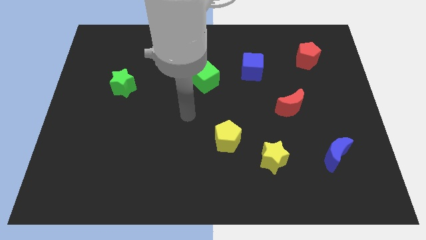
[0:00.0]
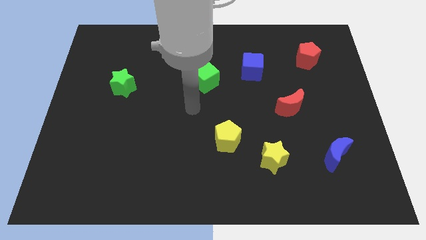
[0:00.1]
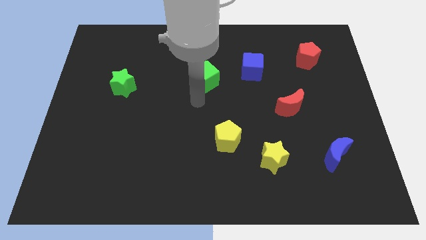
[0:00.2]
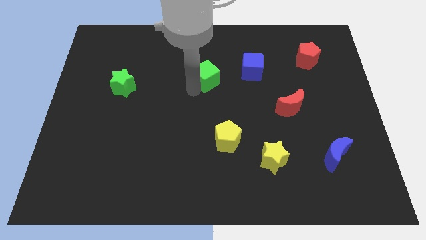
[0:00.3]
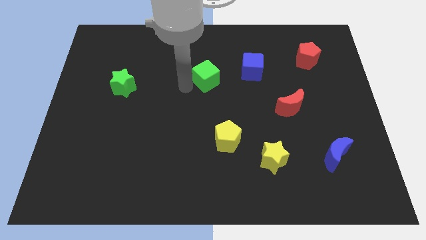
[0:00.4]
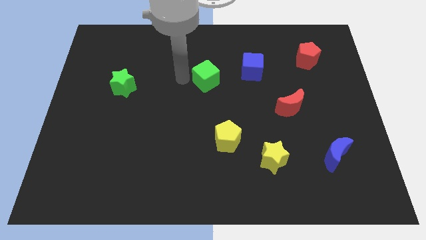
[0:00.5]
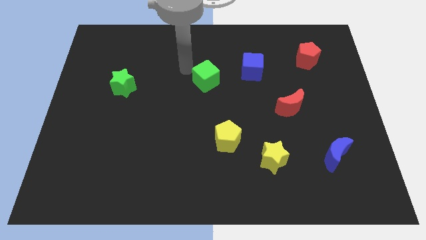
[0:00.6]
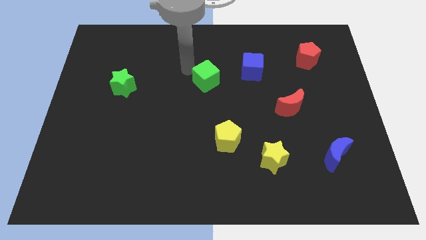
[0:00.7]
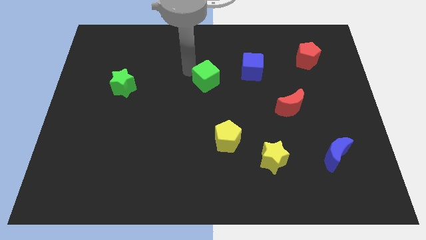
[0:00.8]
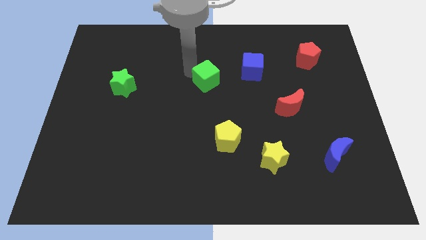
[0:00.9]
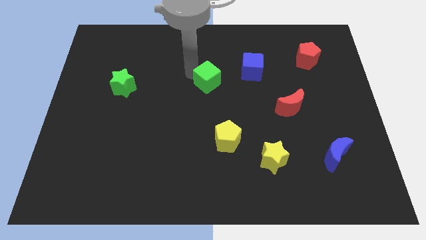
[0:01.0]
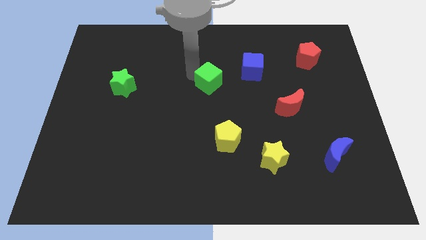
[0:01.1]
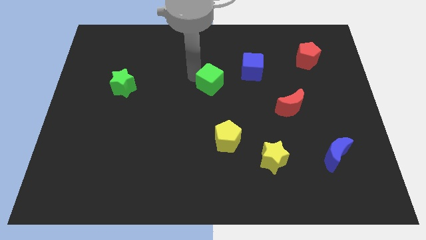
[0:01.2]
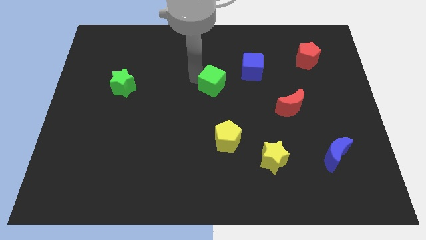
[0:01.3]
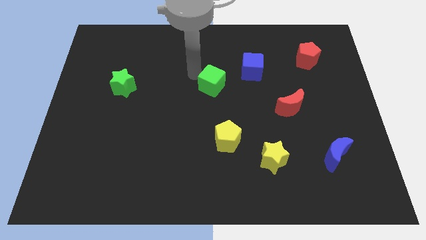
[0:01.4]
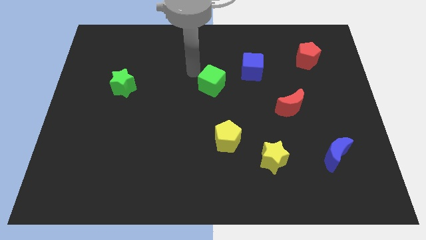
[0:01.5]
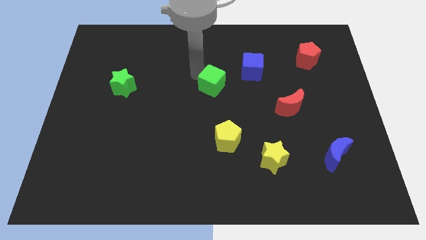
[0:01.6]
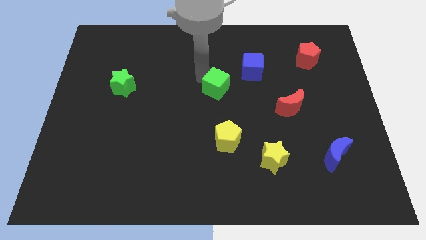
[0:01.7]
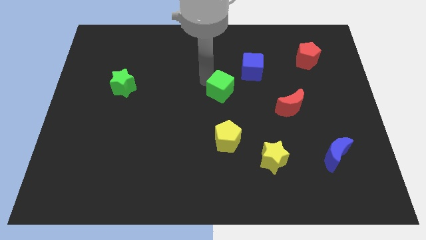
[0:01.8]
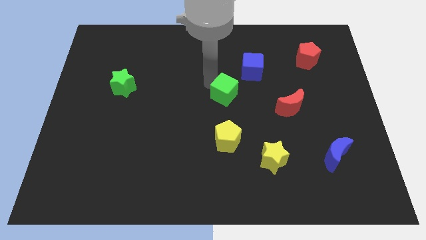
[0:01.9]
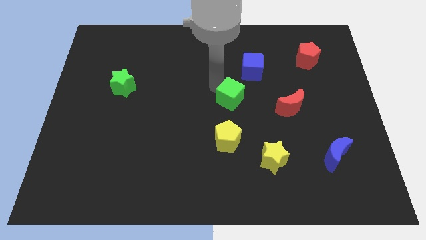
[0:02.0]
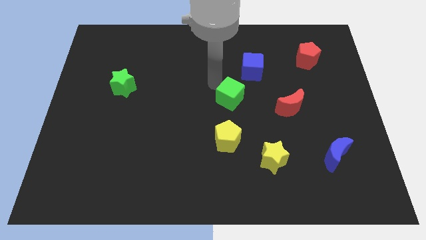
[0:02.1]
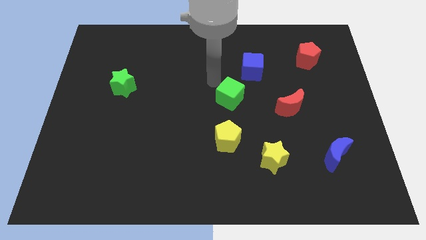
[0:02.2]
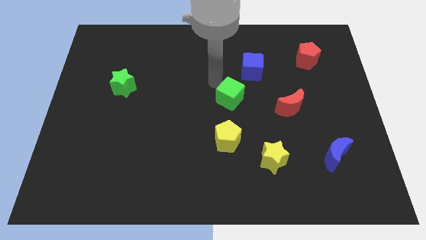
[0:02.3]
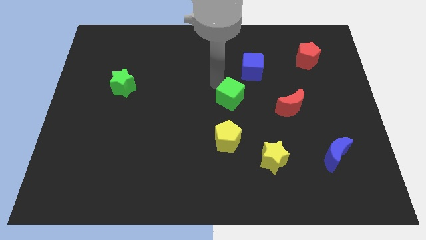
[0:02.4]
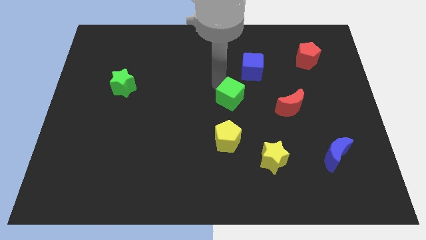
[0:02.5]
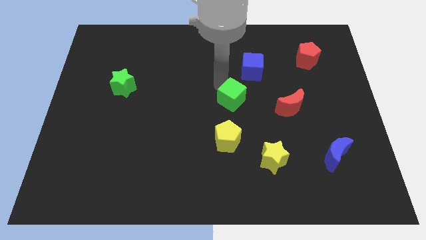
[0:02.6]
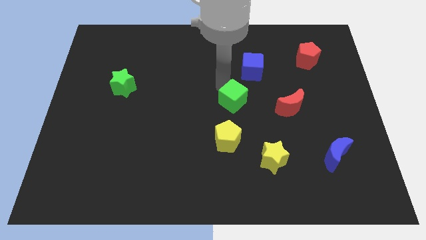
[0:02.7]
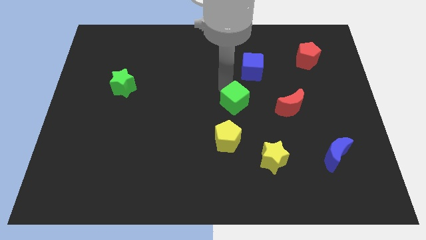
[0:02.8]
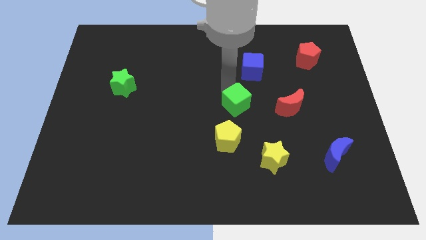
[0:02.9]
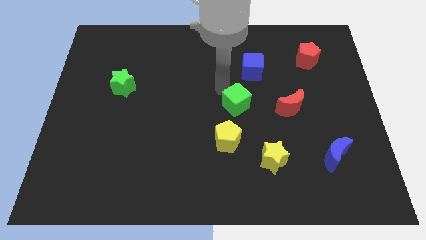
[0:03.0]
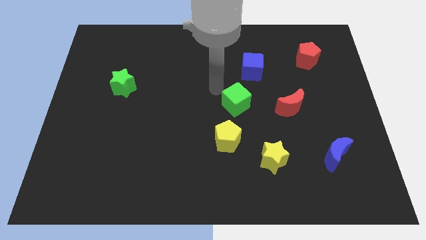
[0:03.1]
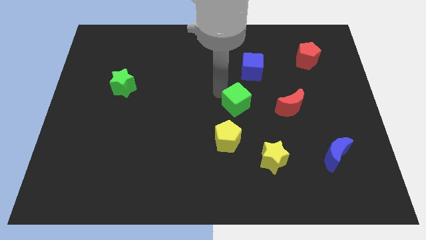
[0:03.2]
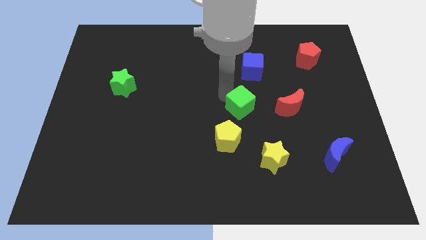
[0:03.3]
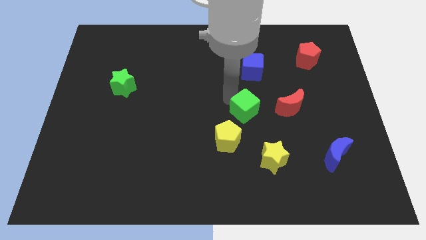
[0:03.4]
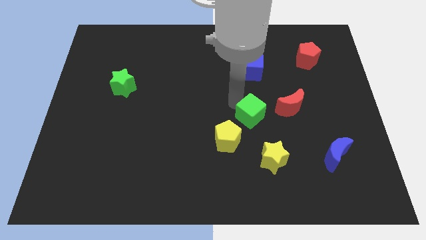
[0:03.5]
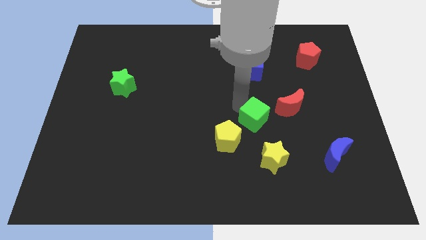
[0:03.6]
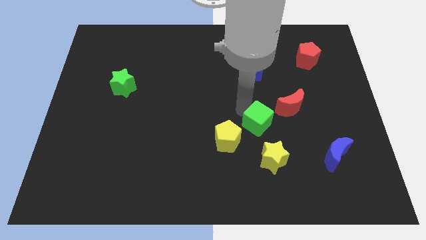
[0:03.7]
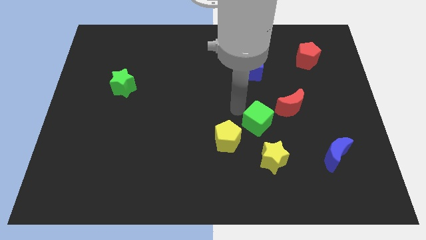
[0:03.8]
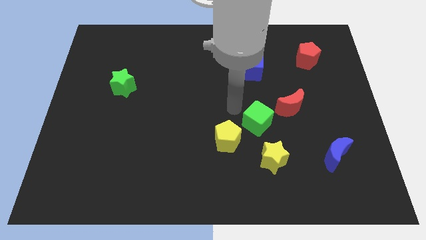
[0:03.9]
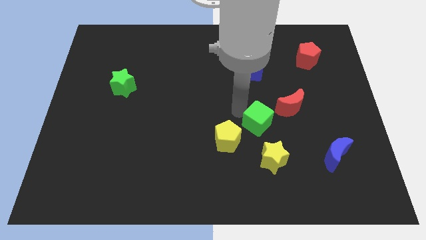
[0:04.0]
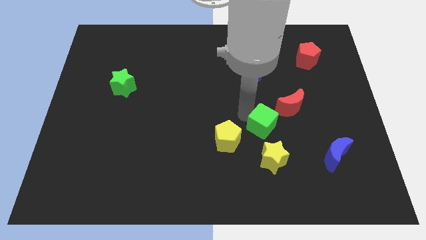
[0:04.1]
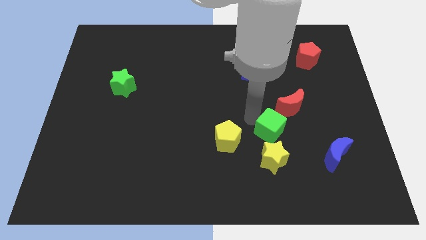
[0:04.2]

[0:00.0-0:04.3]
push the green cube downwards and then right

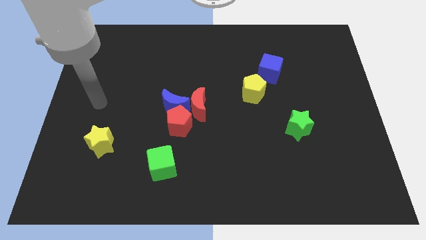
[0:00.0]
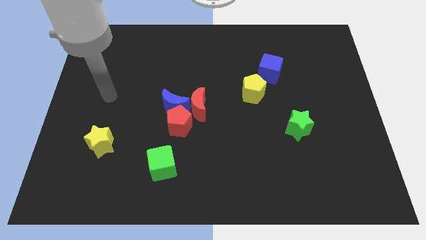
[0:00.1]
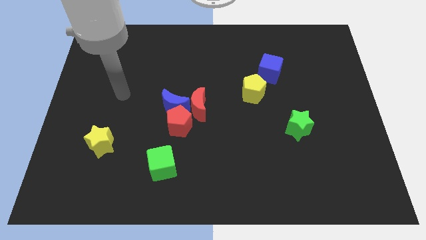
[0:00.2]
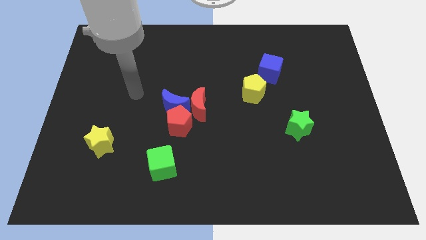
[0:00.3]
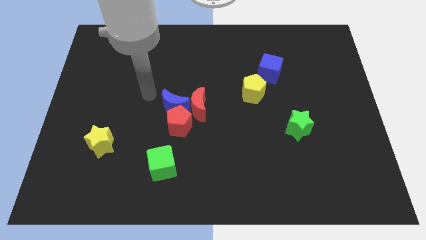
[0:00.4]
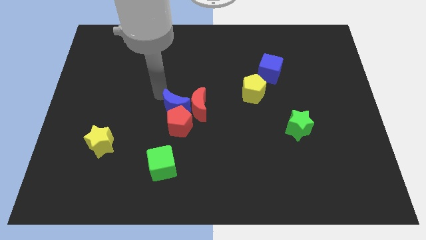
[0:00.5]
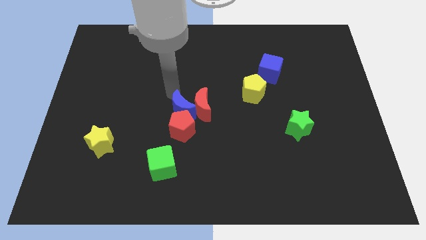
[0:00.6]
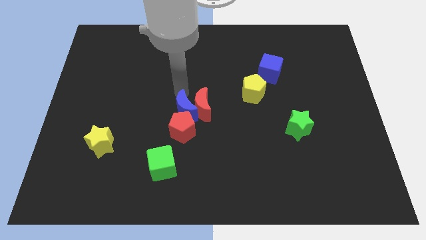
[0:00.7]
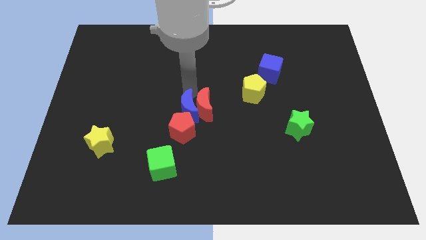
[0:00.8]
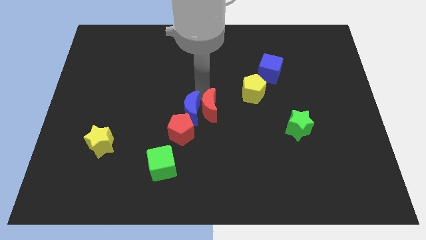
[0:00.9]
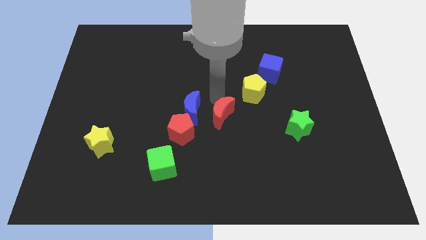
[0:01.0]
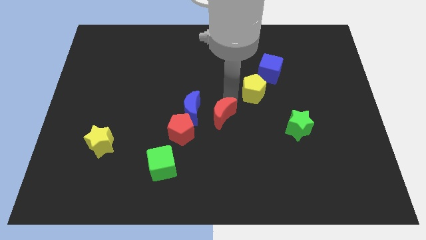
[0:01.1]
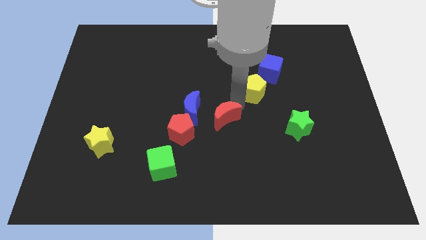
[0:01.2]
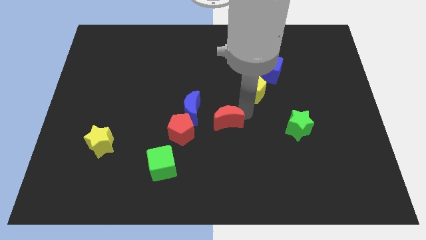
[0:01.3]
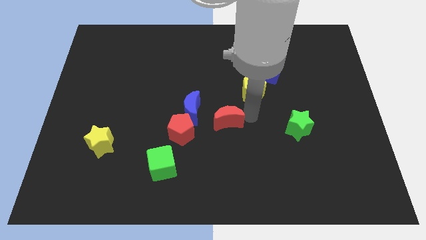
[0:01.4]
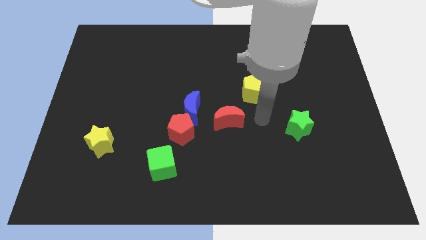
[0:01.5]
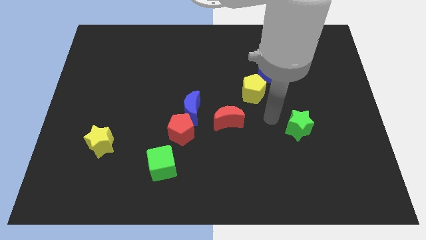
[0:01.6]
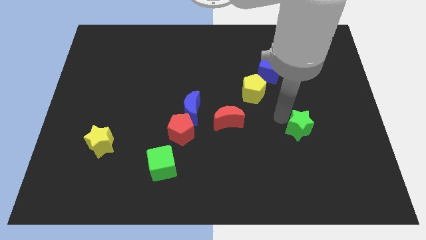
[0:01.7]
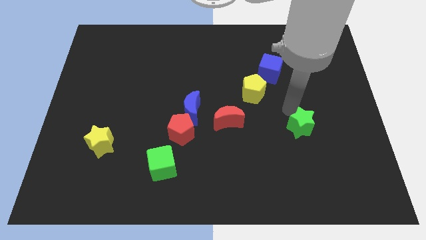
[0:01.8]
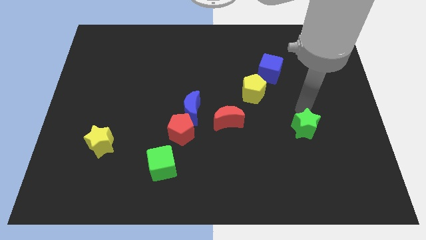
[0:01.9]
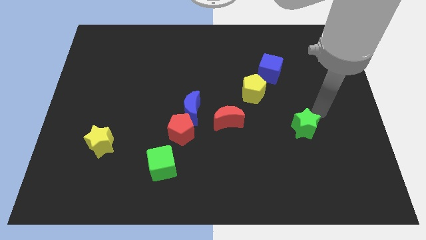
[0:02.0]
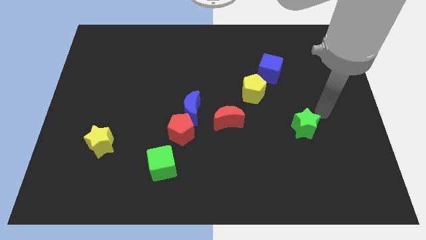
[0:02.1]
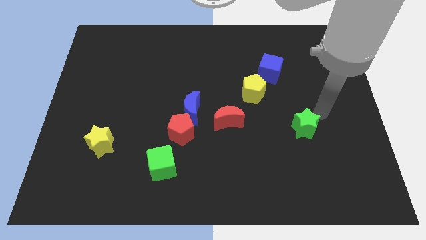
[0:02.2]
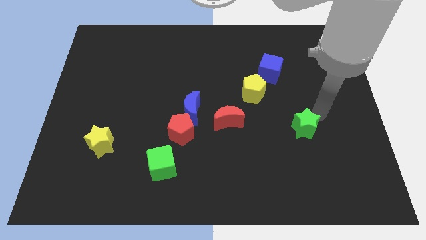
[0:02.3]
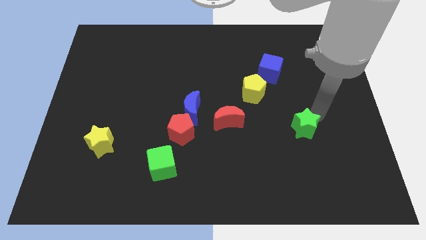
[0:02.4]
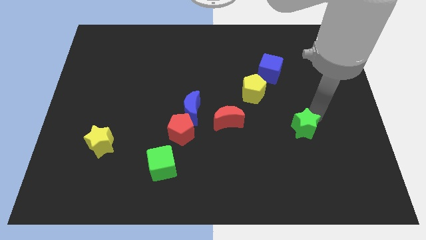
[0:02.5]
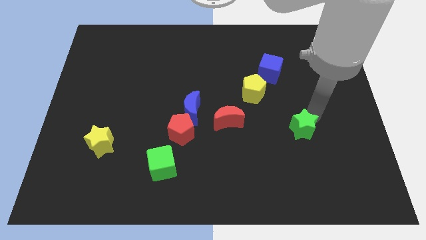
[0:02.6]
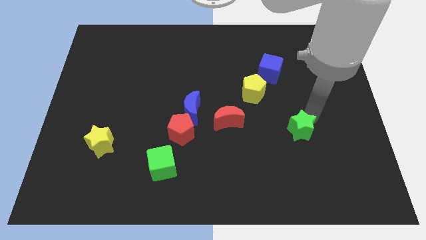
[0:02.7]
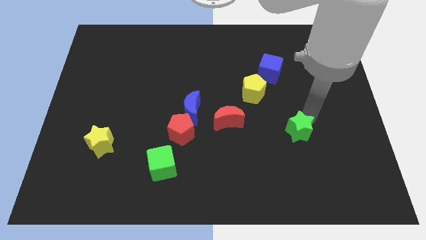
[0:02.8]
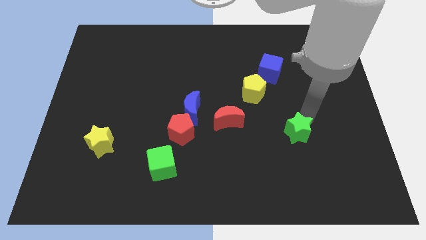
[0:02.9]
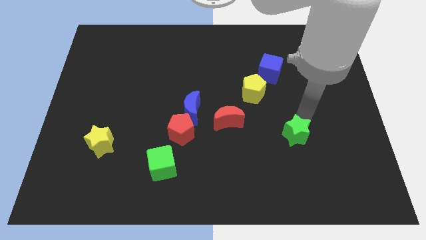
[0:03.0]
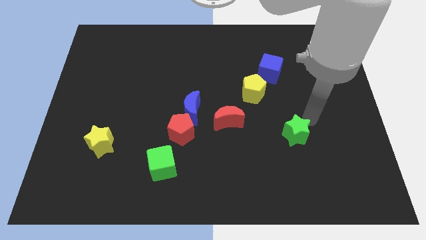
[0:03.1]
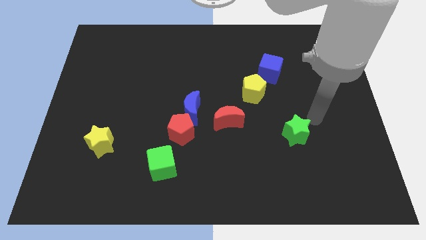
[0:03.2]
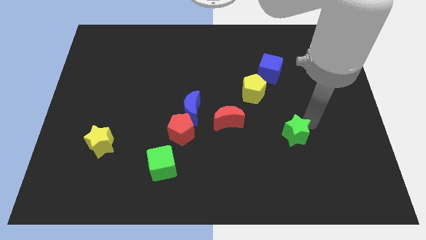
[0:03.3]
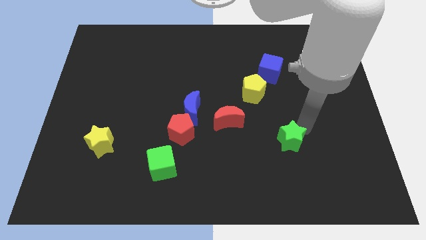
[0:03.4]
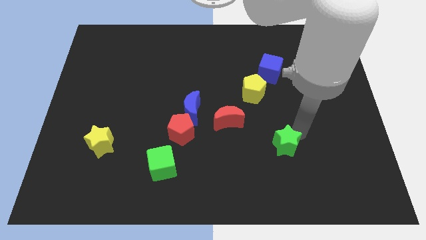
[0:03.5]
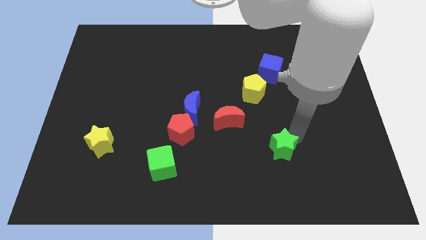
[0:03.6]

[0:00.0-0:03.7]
slightly move the green star diagonally down and left
